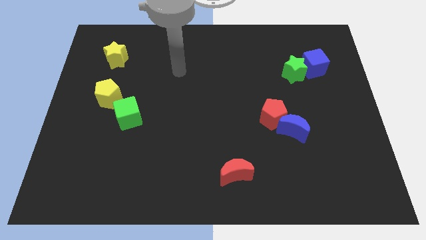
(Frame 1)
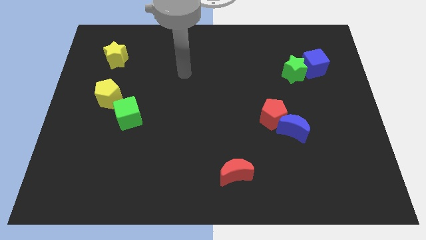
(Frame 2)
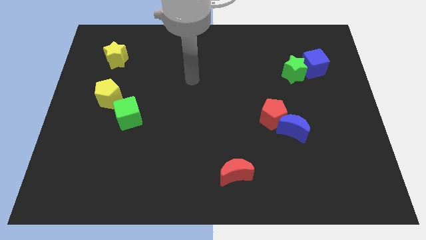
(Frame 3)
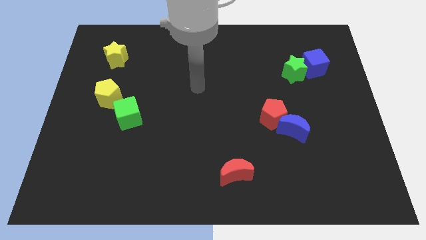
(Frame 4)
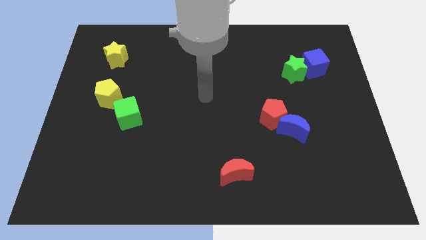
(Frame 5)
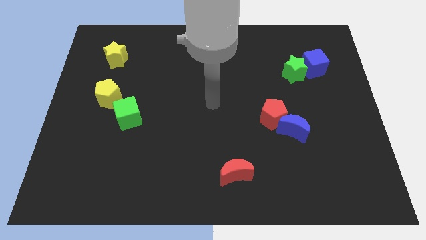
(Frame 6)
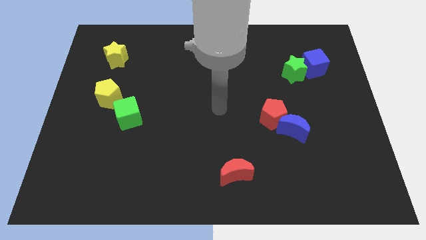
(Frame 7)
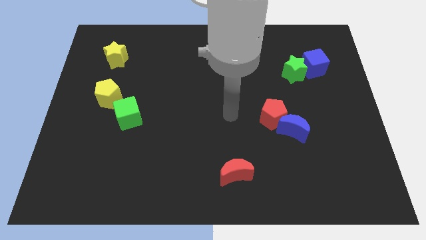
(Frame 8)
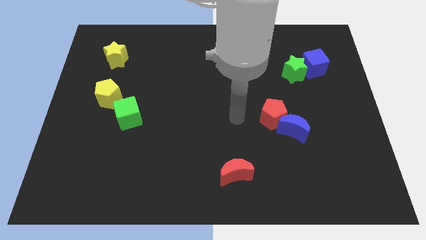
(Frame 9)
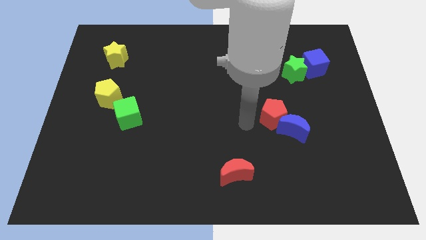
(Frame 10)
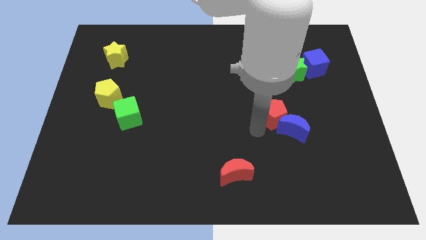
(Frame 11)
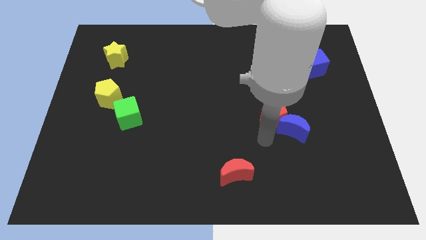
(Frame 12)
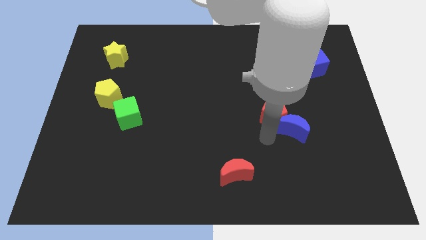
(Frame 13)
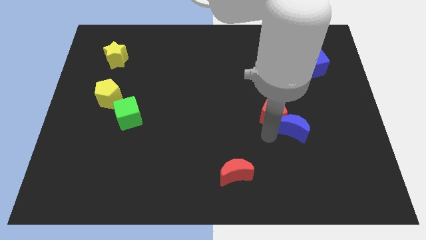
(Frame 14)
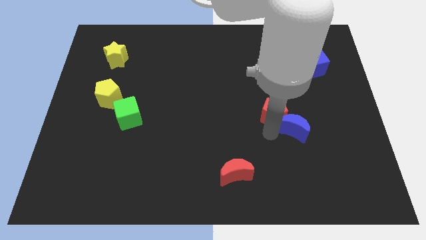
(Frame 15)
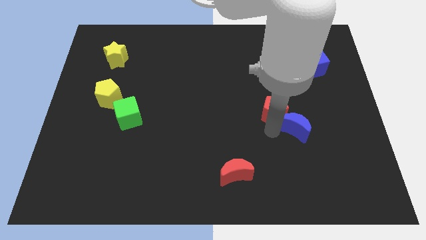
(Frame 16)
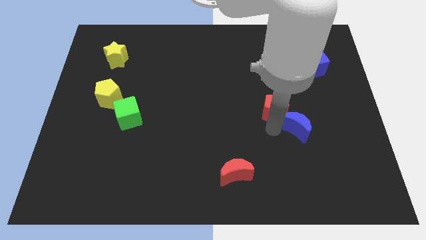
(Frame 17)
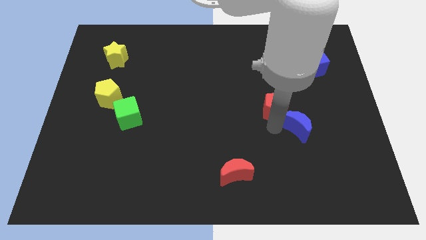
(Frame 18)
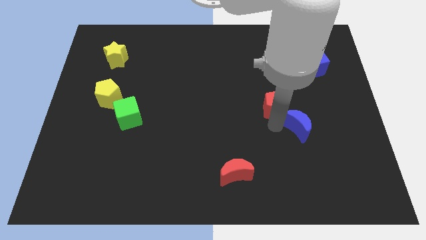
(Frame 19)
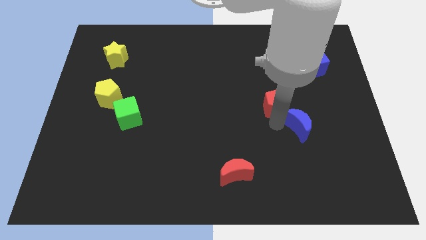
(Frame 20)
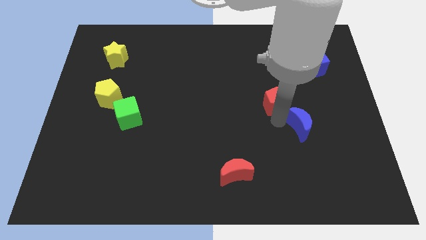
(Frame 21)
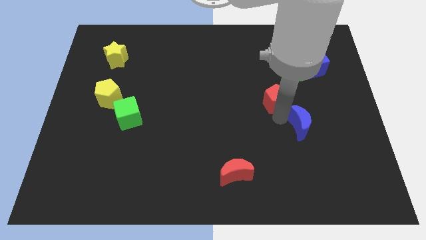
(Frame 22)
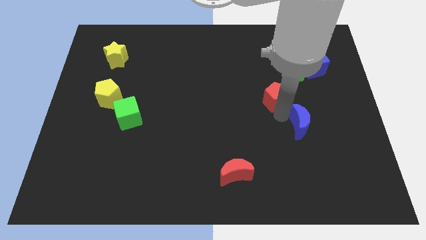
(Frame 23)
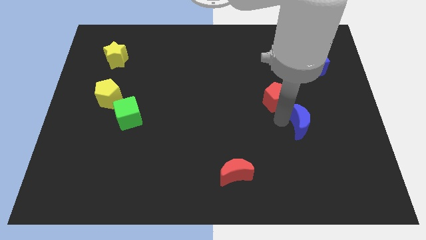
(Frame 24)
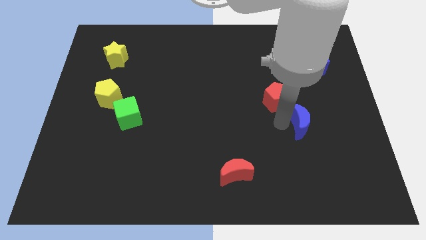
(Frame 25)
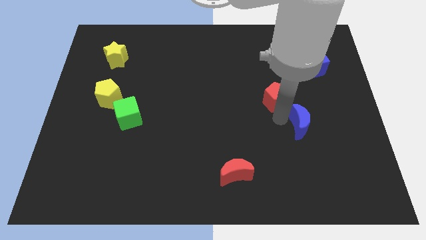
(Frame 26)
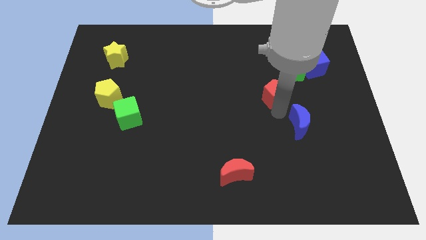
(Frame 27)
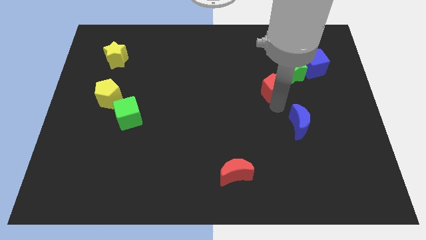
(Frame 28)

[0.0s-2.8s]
push the red pentagon upwards a little

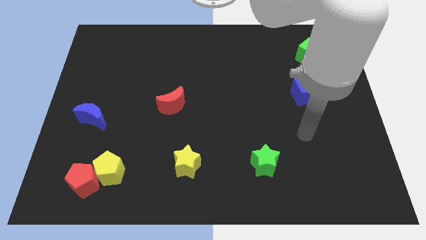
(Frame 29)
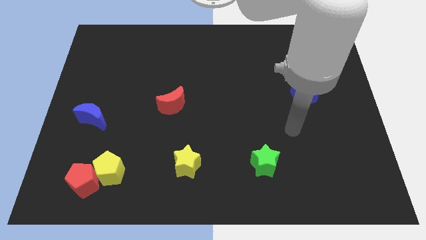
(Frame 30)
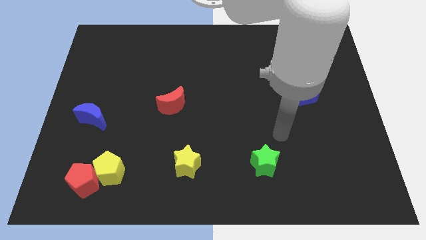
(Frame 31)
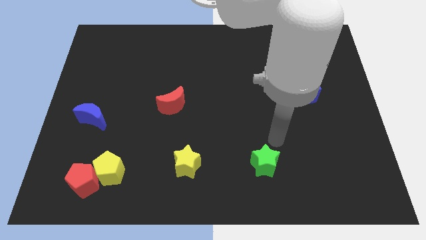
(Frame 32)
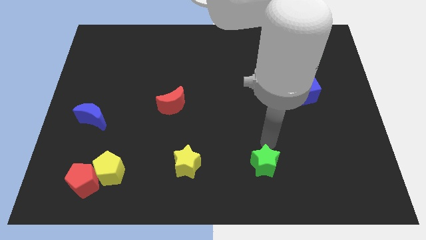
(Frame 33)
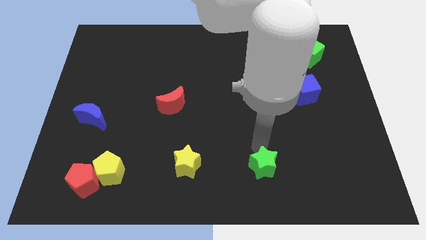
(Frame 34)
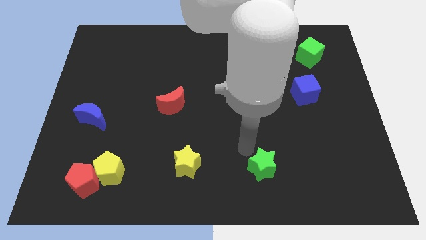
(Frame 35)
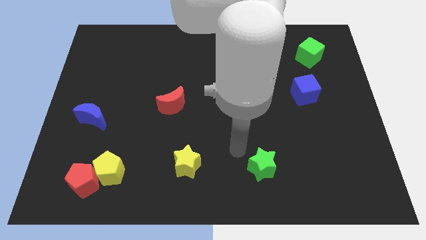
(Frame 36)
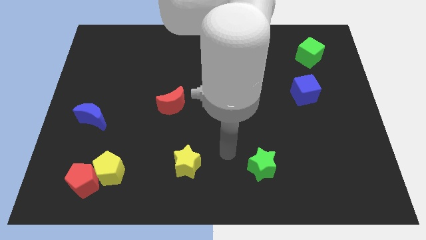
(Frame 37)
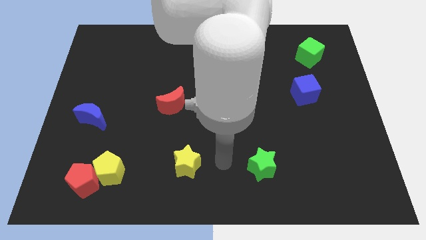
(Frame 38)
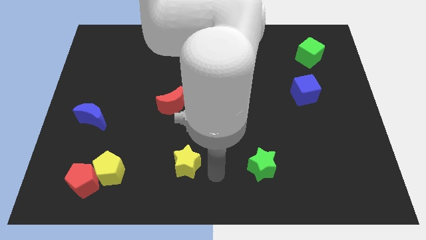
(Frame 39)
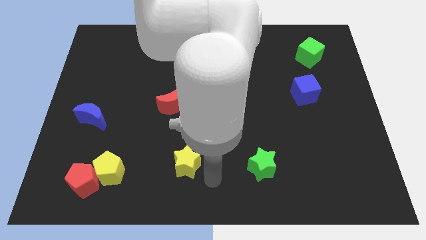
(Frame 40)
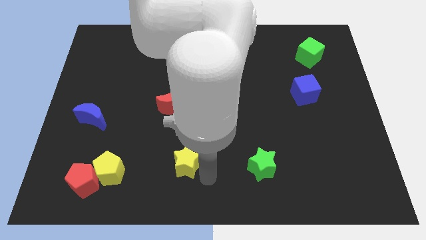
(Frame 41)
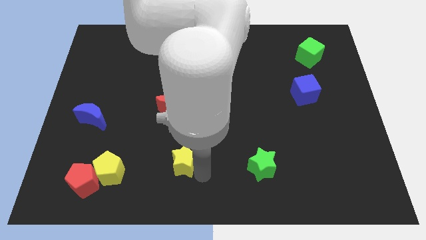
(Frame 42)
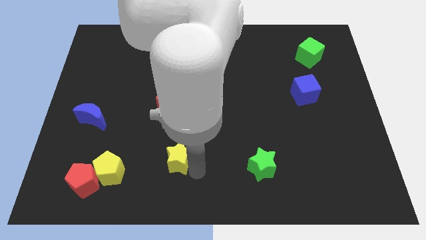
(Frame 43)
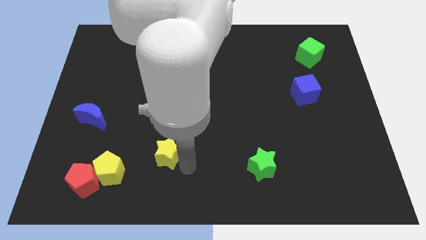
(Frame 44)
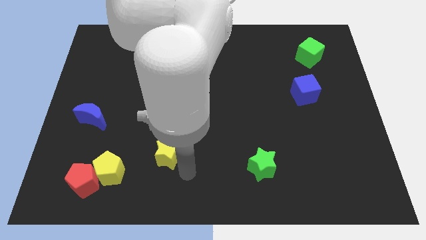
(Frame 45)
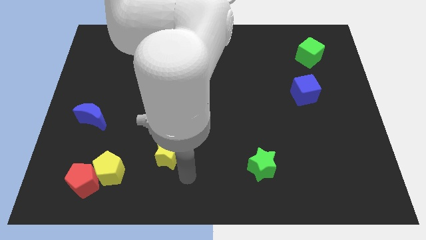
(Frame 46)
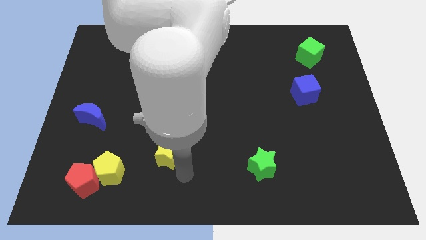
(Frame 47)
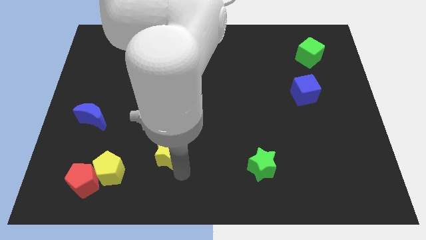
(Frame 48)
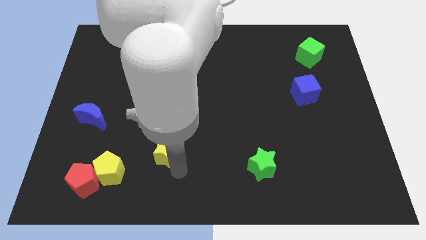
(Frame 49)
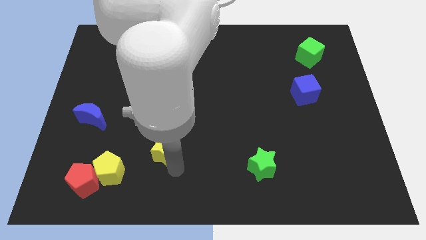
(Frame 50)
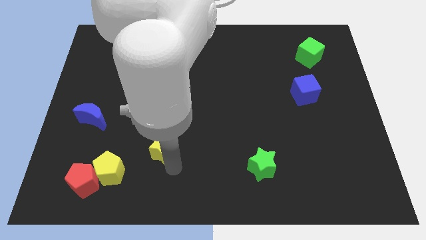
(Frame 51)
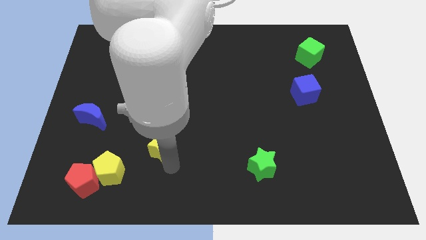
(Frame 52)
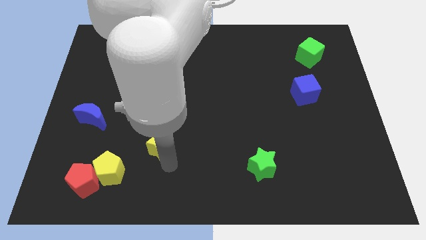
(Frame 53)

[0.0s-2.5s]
slightly push the yellow star diagonally up and left

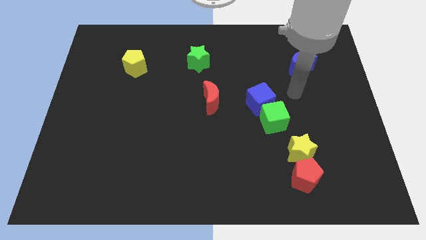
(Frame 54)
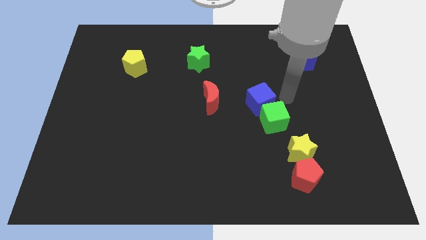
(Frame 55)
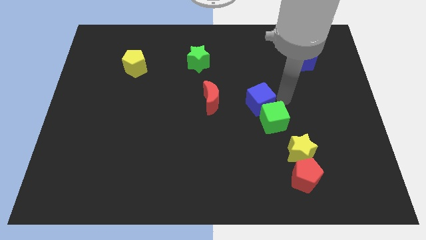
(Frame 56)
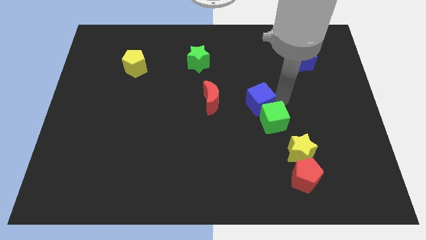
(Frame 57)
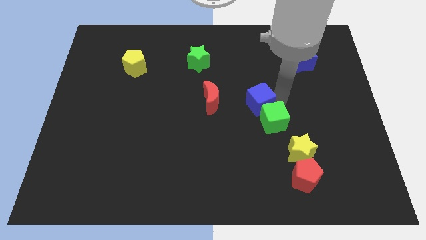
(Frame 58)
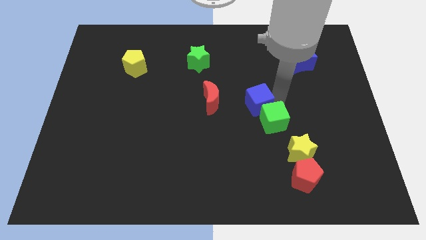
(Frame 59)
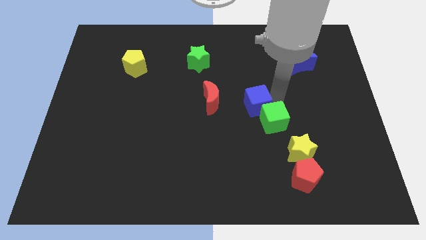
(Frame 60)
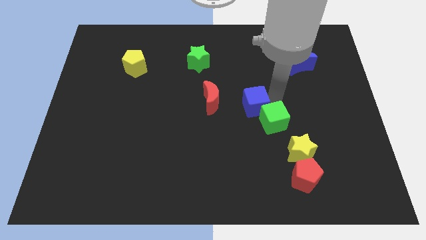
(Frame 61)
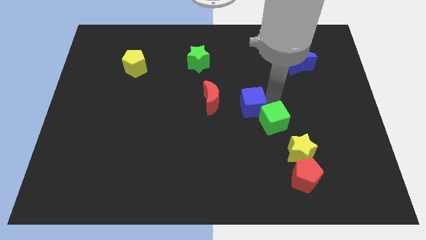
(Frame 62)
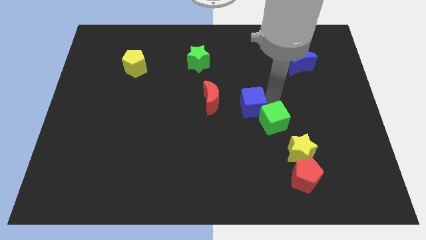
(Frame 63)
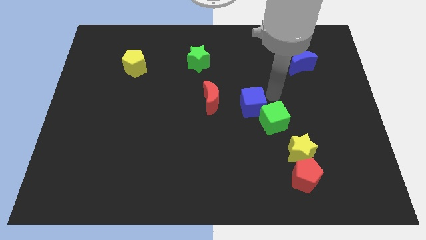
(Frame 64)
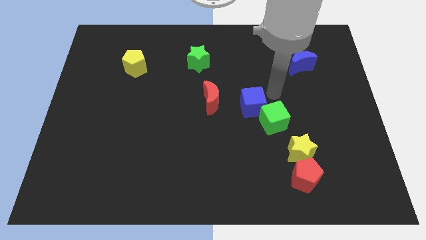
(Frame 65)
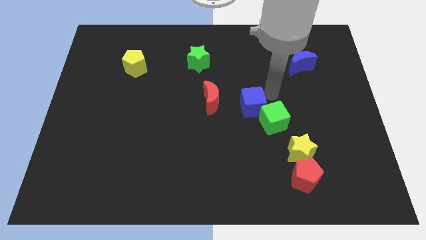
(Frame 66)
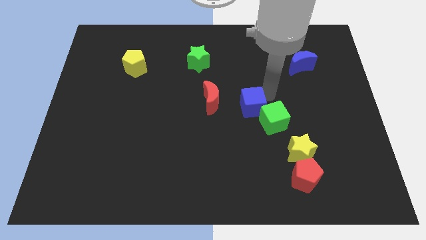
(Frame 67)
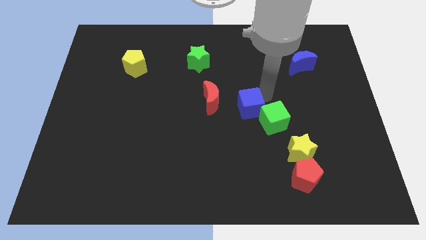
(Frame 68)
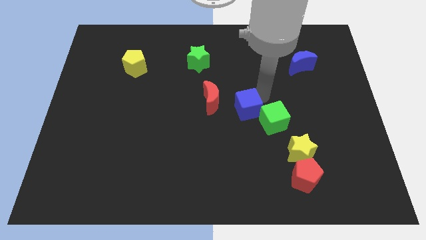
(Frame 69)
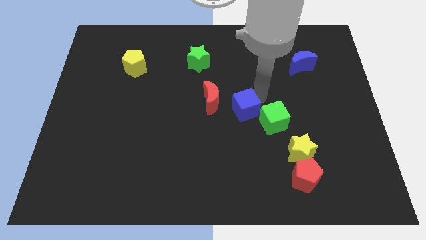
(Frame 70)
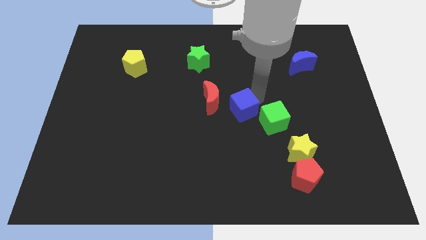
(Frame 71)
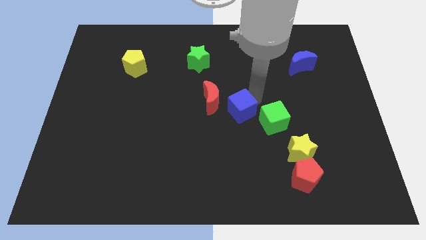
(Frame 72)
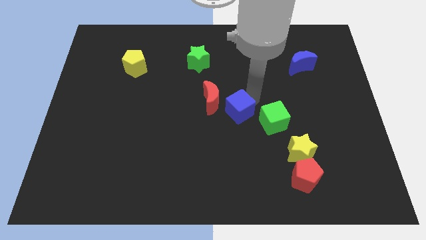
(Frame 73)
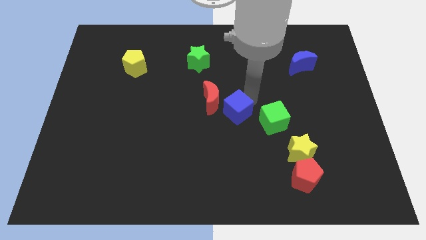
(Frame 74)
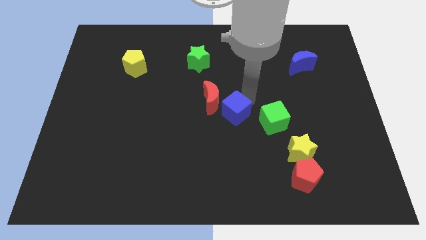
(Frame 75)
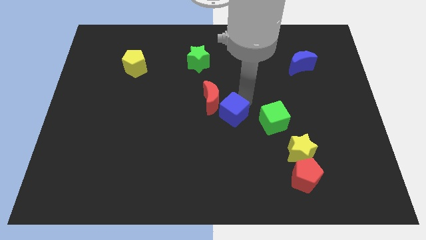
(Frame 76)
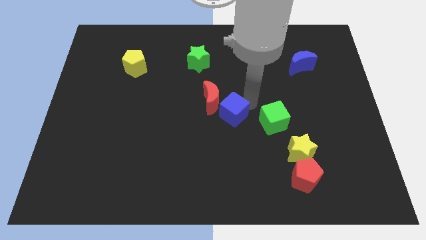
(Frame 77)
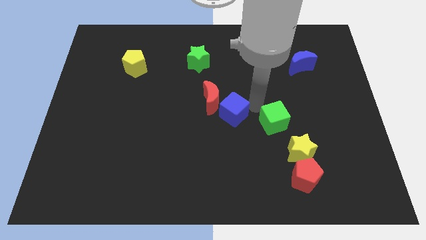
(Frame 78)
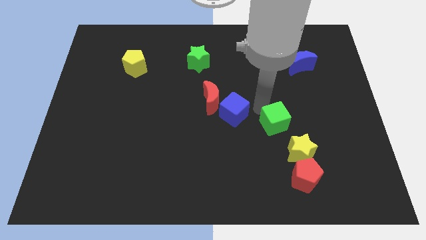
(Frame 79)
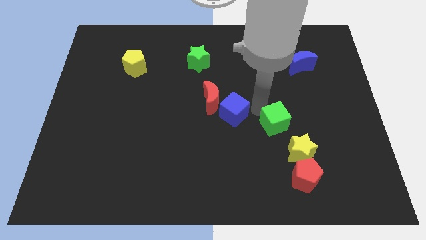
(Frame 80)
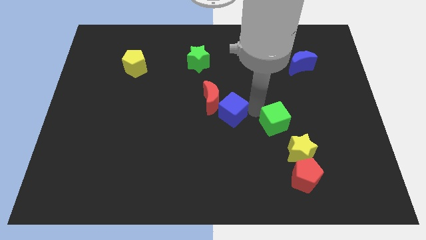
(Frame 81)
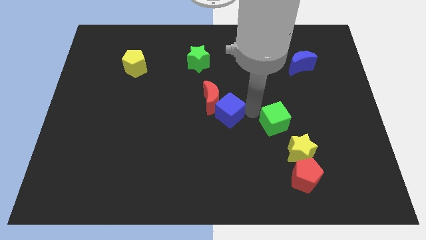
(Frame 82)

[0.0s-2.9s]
push the blue cube somewhat left
